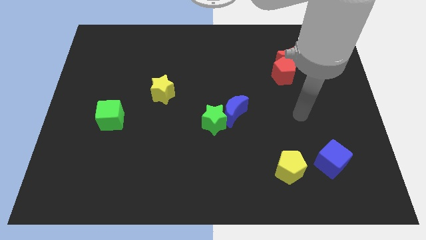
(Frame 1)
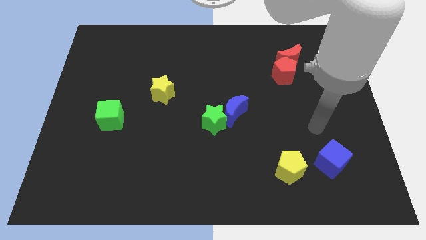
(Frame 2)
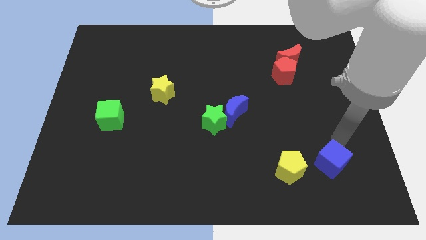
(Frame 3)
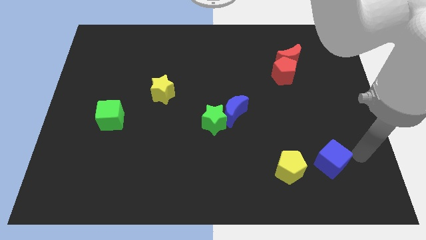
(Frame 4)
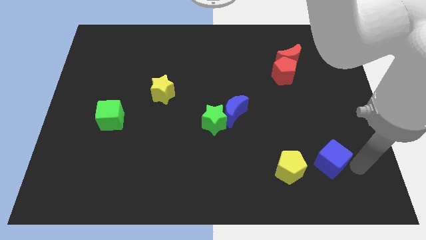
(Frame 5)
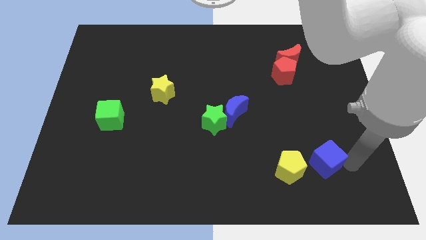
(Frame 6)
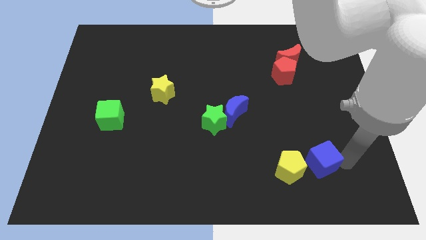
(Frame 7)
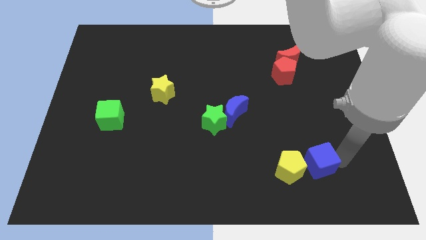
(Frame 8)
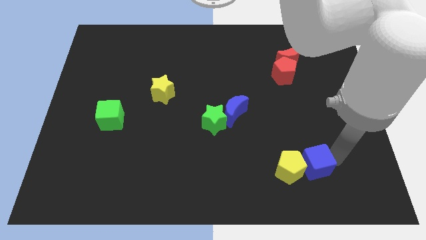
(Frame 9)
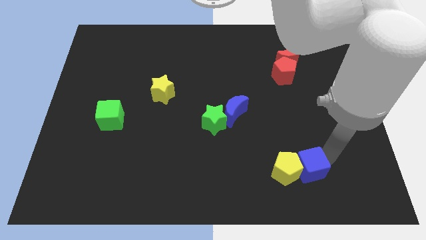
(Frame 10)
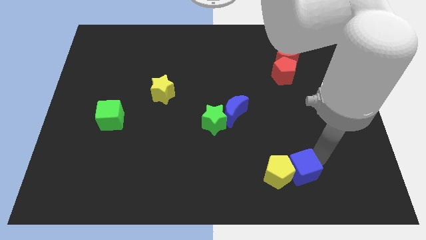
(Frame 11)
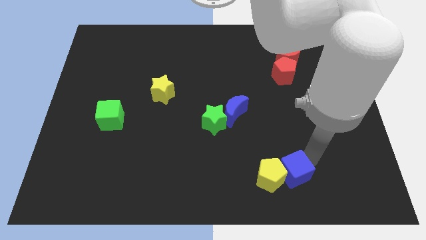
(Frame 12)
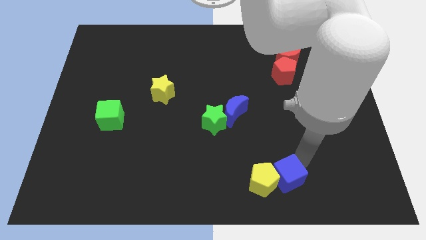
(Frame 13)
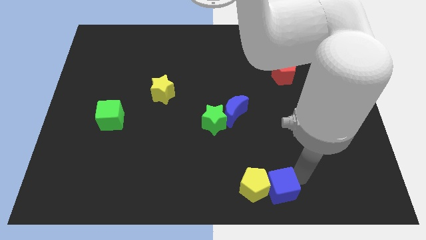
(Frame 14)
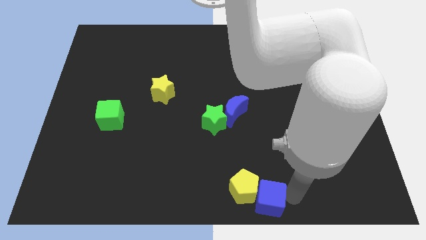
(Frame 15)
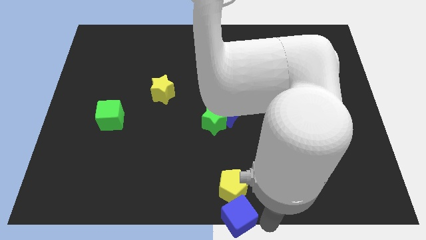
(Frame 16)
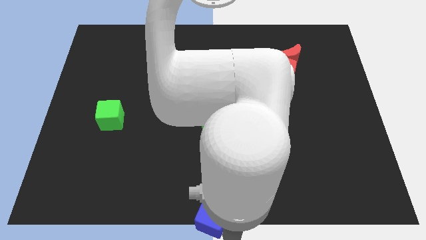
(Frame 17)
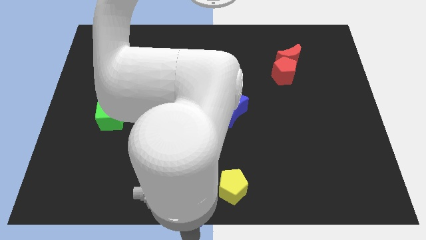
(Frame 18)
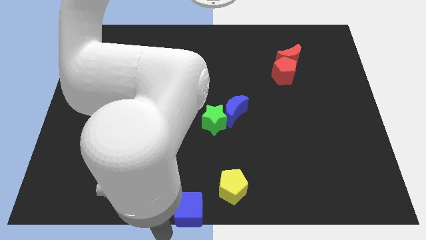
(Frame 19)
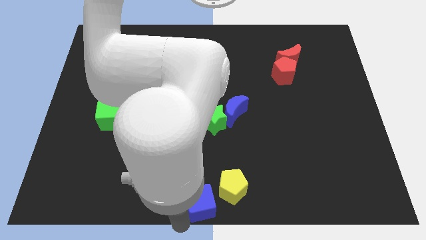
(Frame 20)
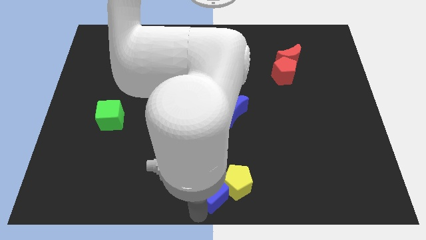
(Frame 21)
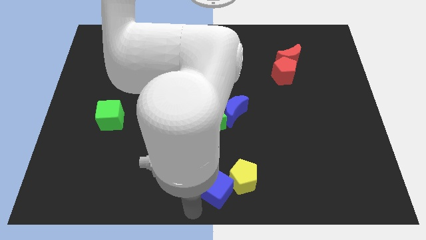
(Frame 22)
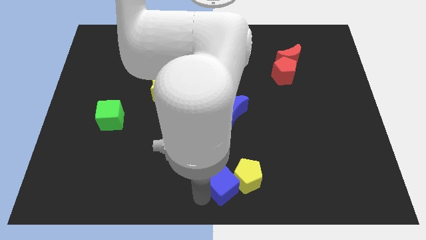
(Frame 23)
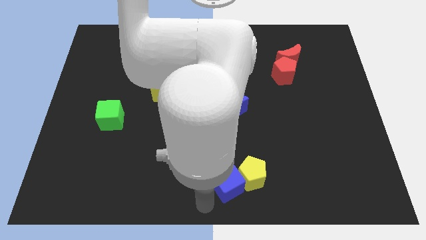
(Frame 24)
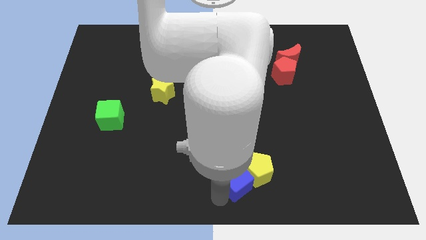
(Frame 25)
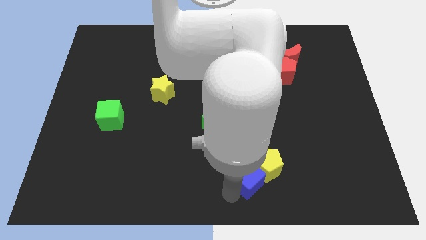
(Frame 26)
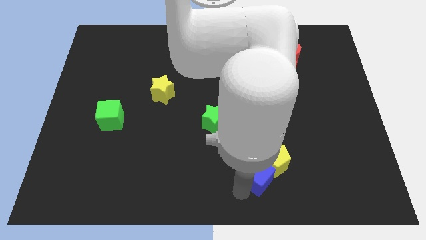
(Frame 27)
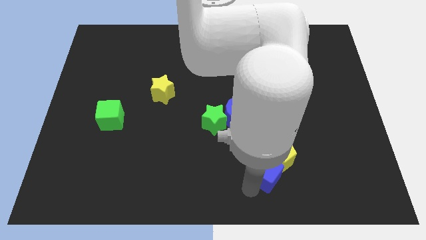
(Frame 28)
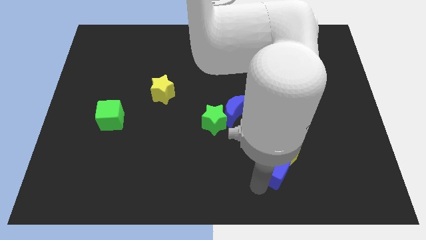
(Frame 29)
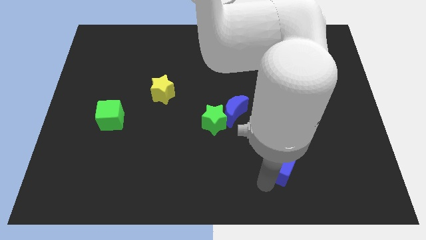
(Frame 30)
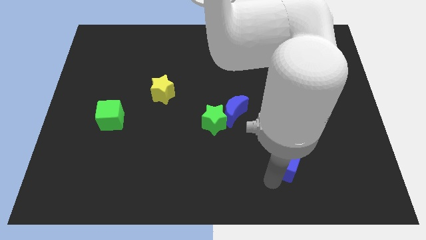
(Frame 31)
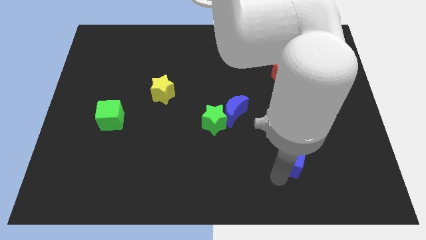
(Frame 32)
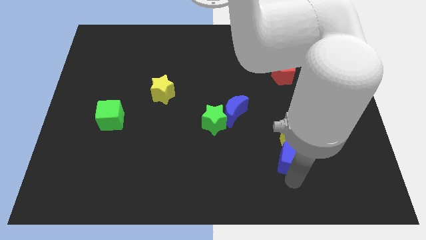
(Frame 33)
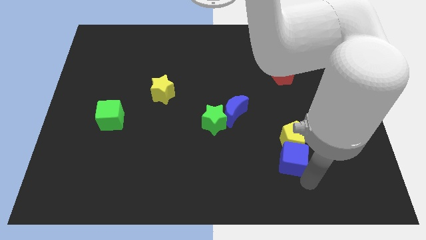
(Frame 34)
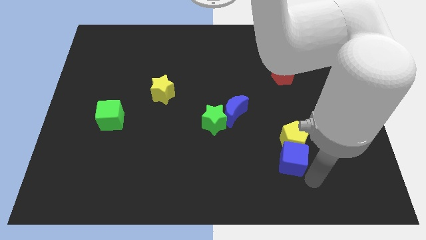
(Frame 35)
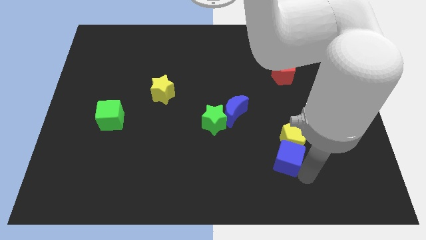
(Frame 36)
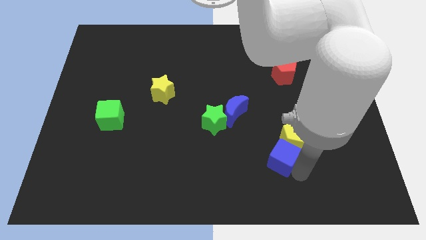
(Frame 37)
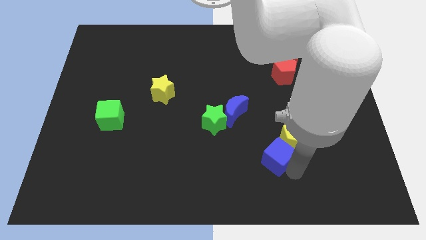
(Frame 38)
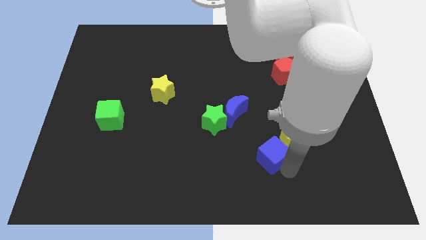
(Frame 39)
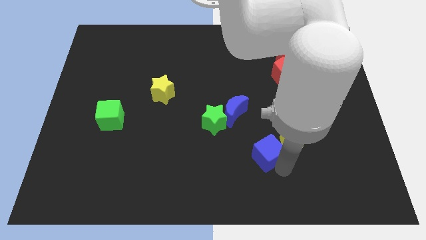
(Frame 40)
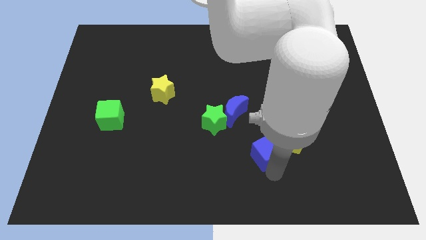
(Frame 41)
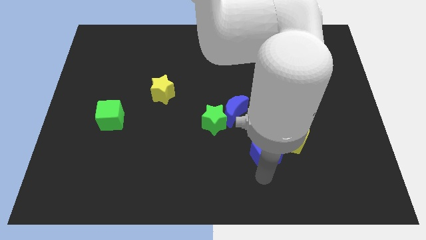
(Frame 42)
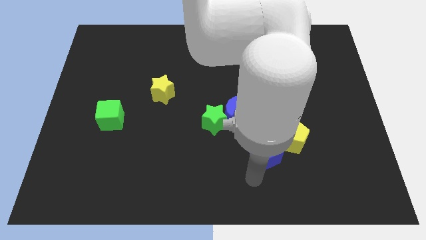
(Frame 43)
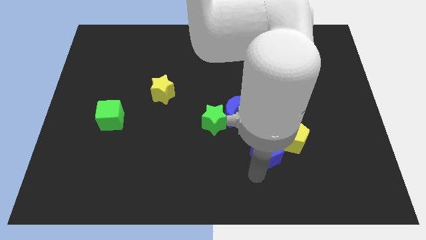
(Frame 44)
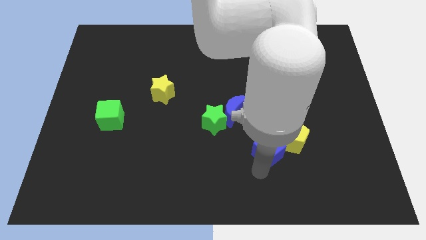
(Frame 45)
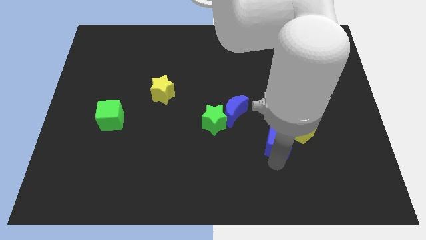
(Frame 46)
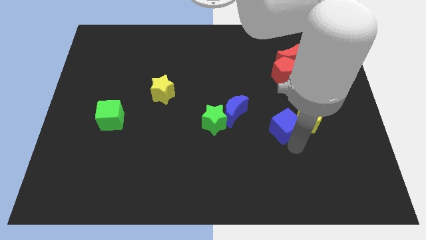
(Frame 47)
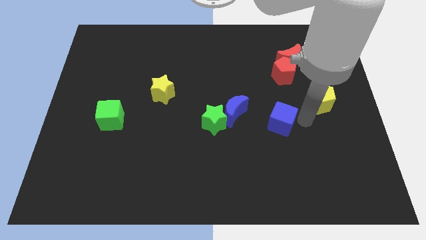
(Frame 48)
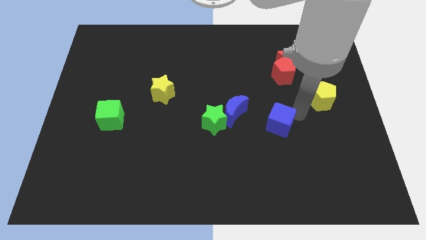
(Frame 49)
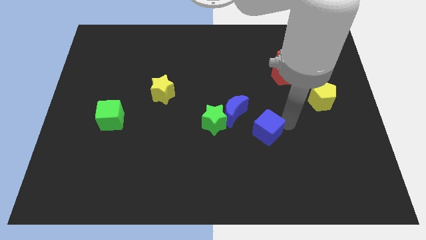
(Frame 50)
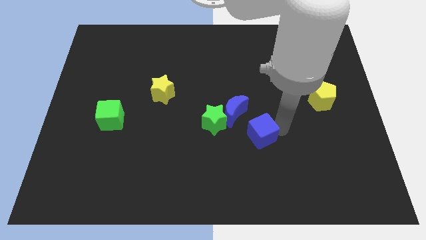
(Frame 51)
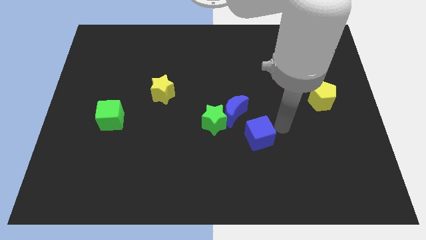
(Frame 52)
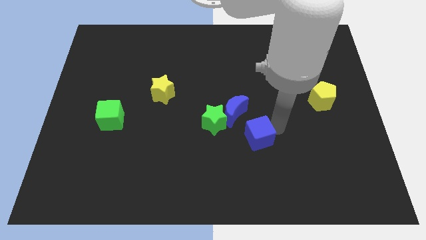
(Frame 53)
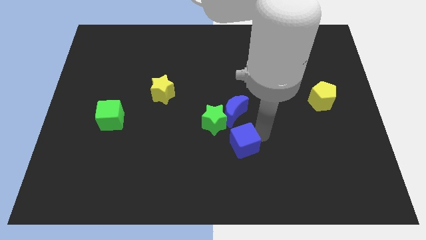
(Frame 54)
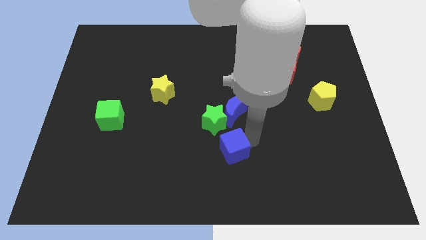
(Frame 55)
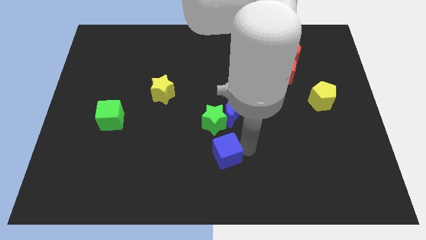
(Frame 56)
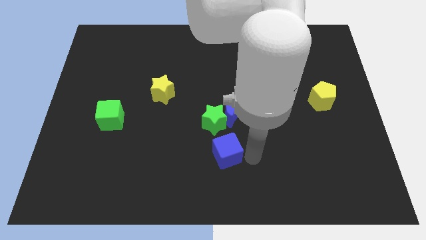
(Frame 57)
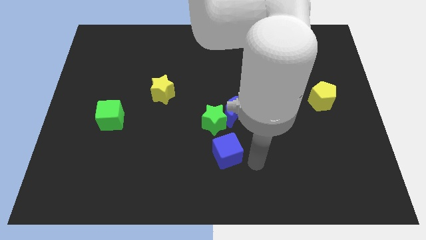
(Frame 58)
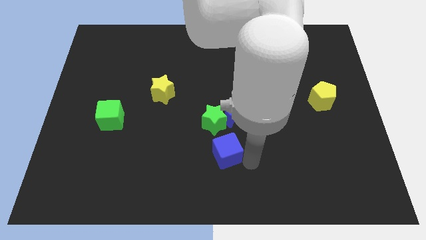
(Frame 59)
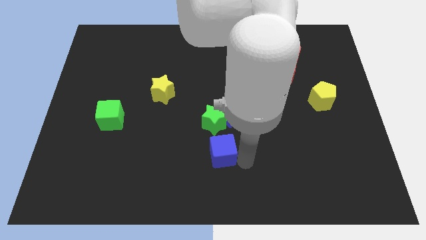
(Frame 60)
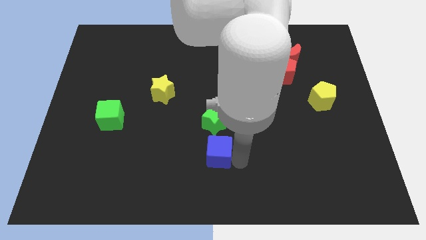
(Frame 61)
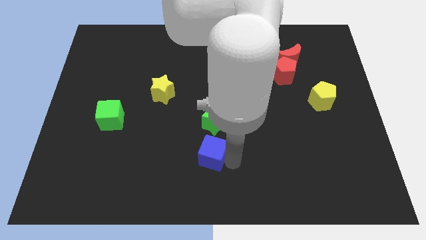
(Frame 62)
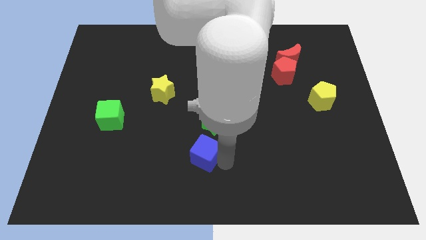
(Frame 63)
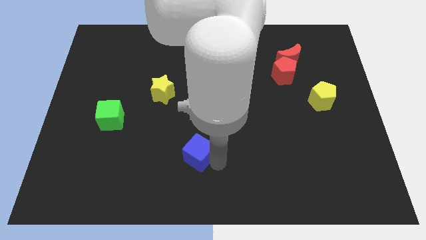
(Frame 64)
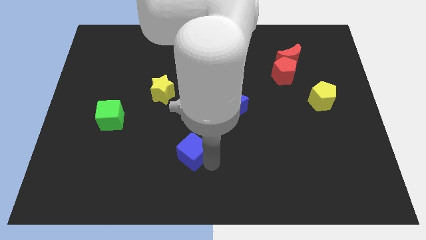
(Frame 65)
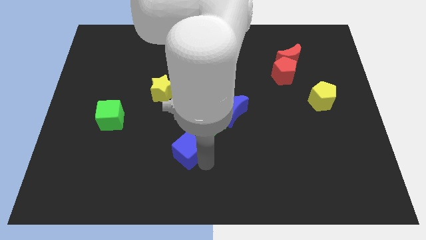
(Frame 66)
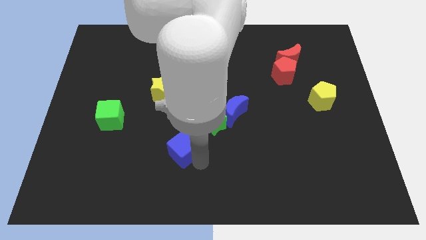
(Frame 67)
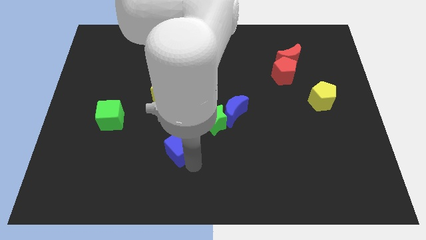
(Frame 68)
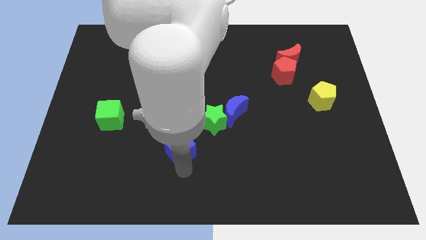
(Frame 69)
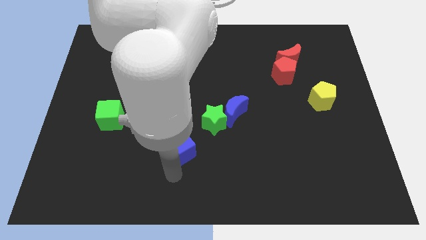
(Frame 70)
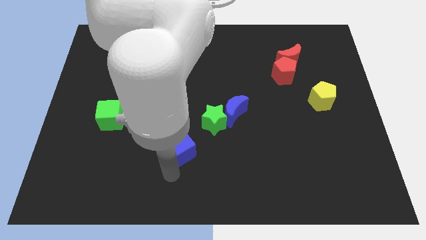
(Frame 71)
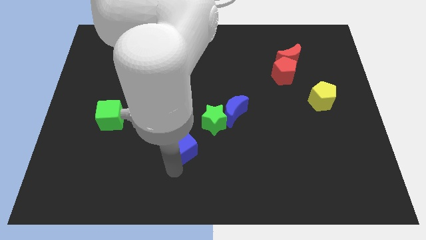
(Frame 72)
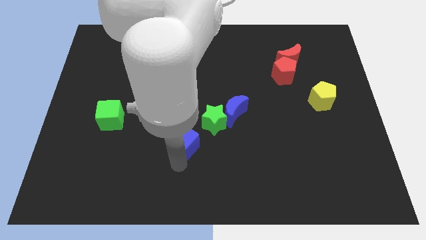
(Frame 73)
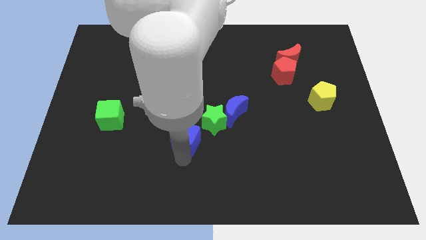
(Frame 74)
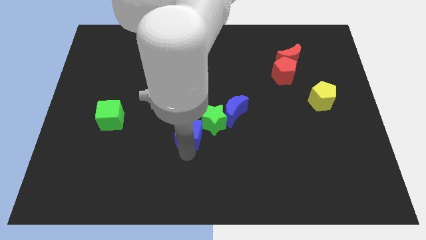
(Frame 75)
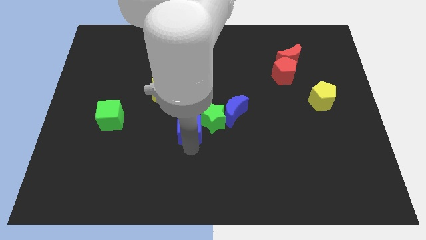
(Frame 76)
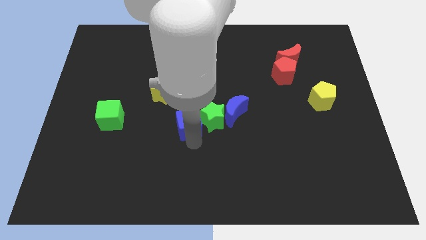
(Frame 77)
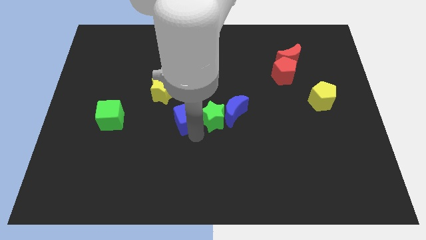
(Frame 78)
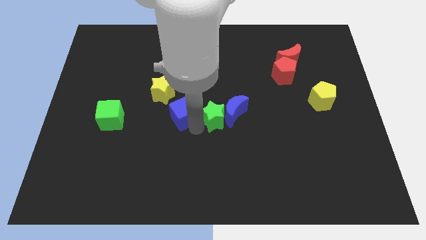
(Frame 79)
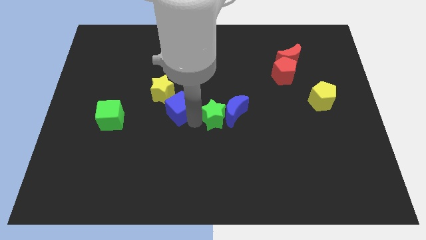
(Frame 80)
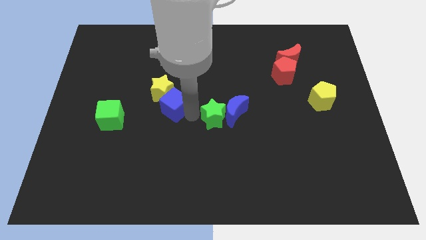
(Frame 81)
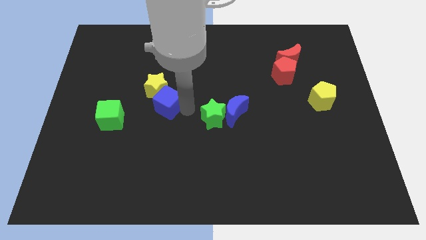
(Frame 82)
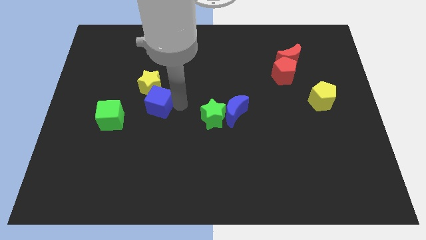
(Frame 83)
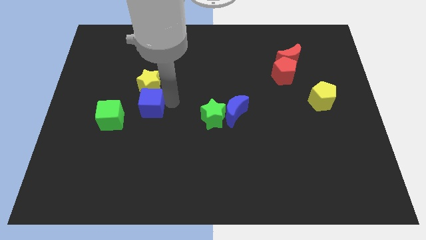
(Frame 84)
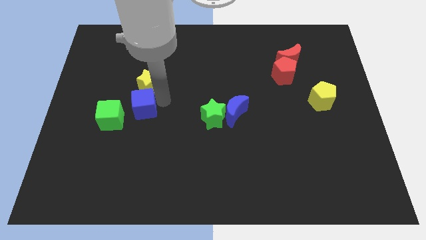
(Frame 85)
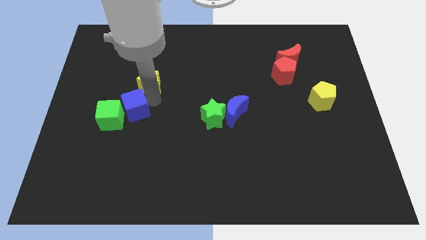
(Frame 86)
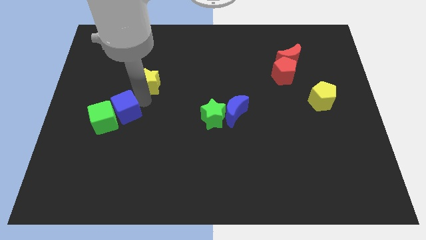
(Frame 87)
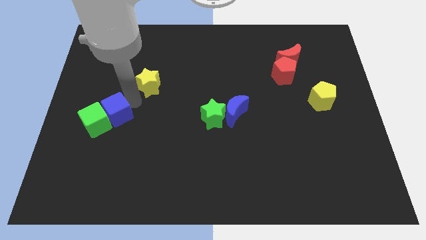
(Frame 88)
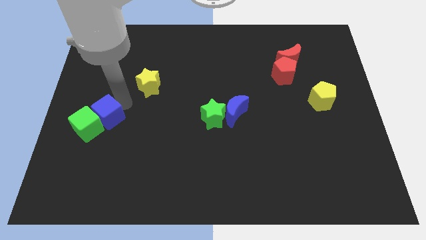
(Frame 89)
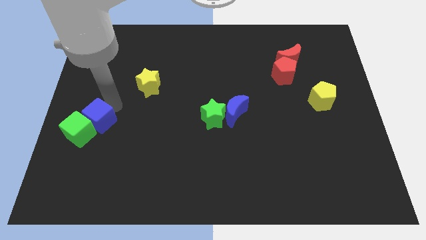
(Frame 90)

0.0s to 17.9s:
push the blue cube to the left side
